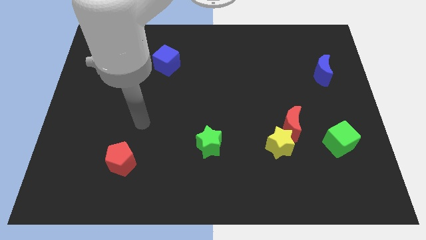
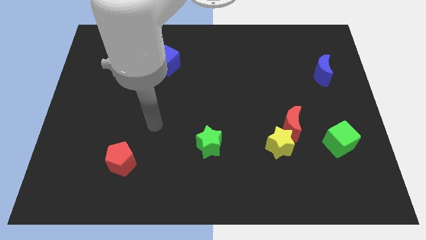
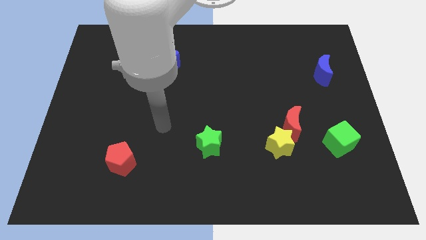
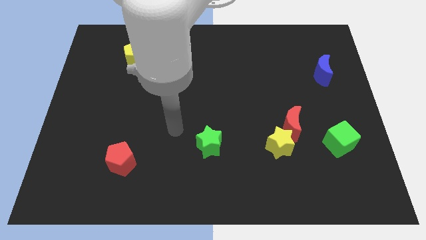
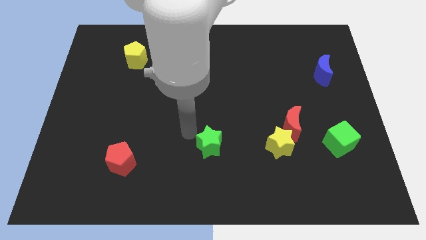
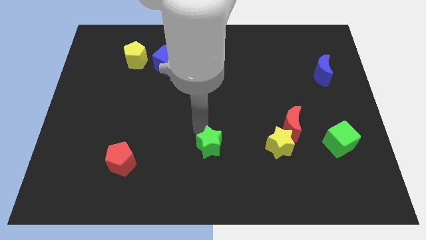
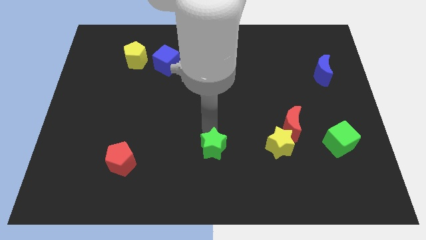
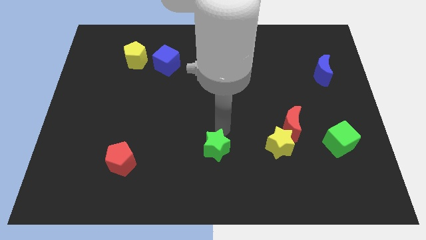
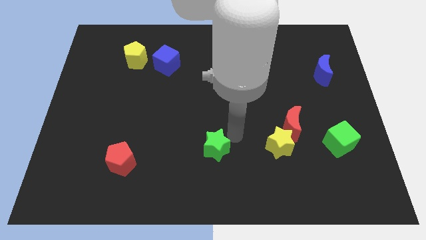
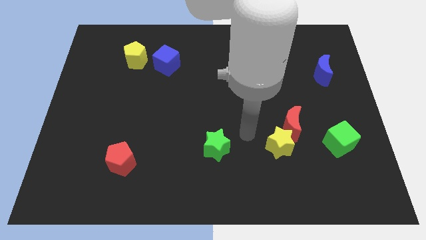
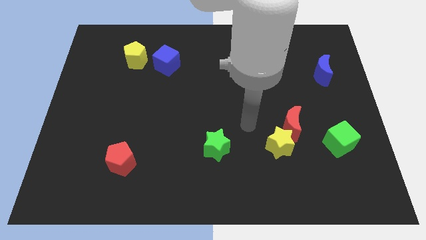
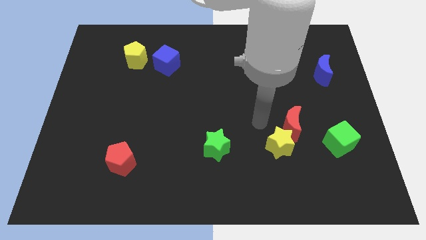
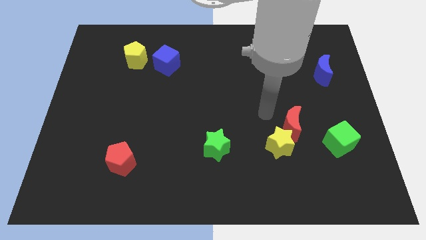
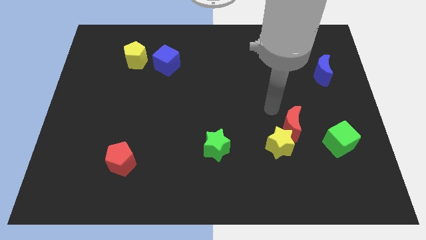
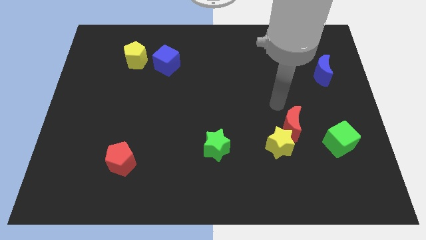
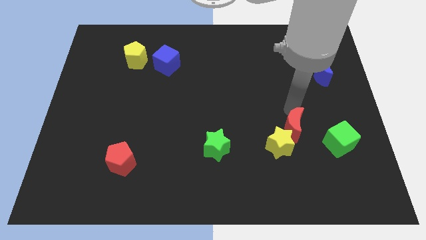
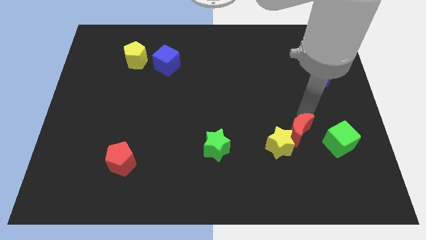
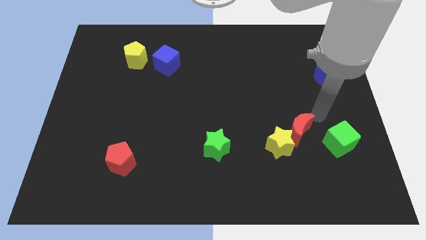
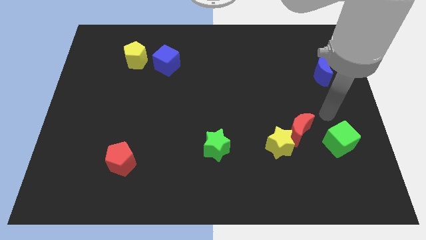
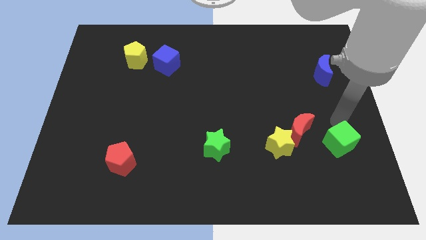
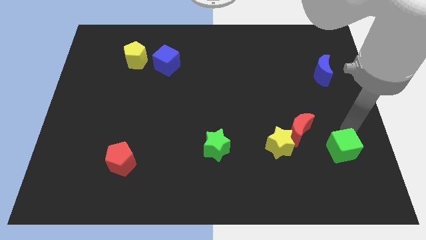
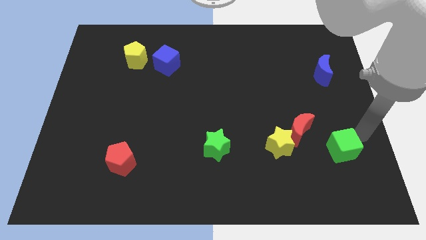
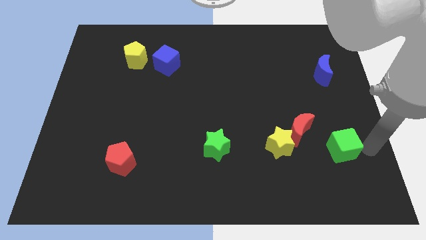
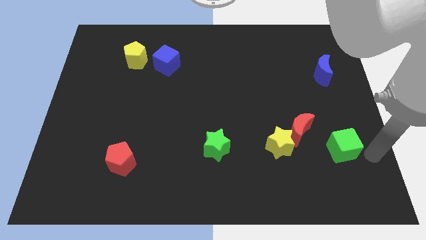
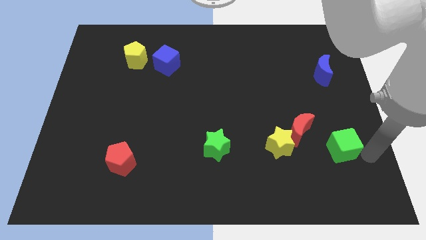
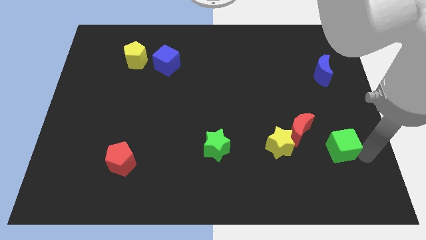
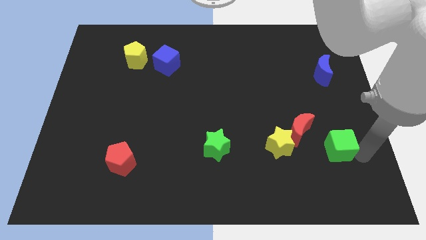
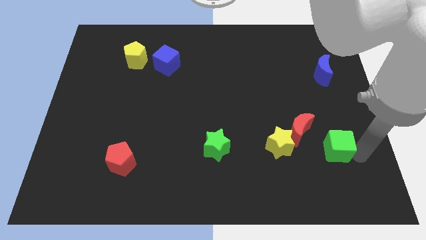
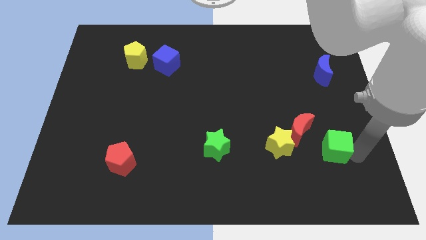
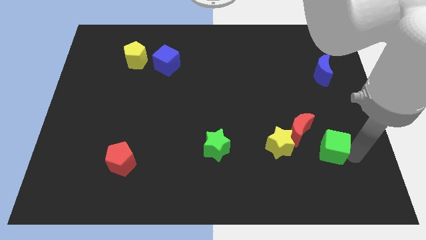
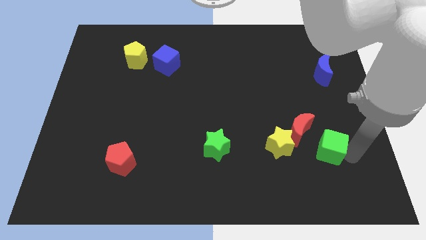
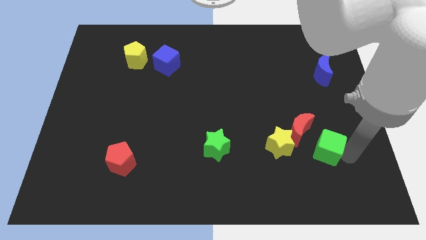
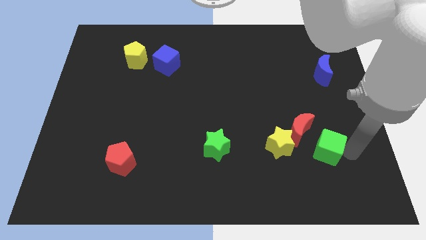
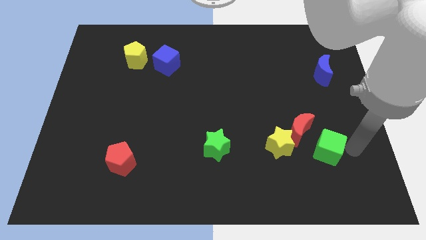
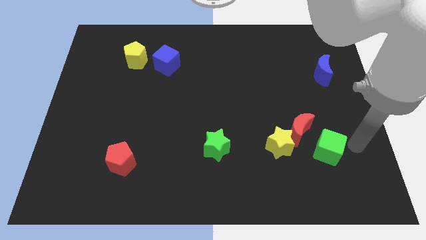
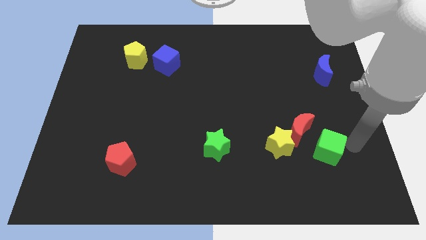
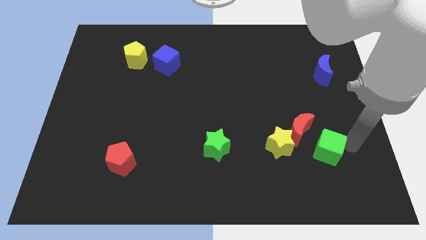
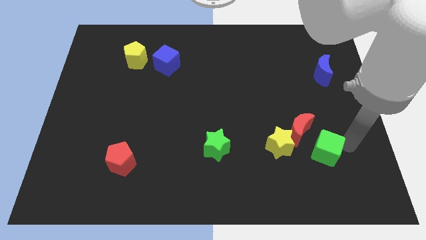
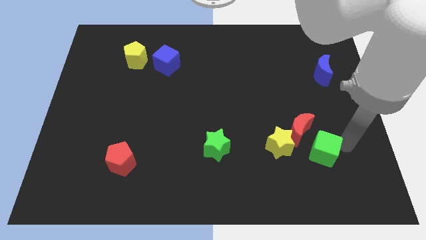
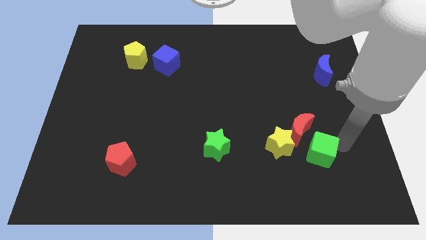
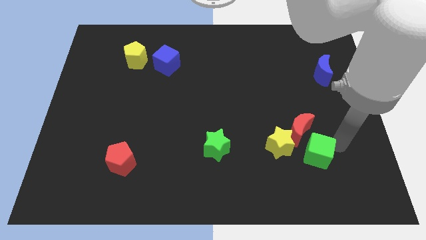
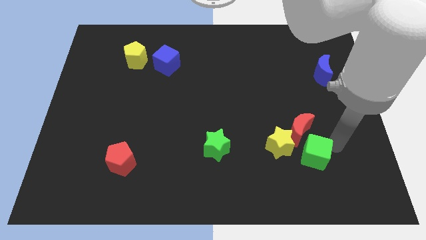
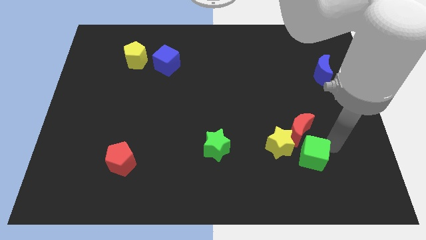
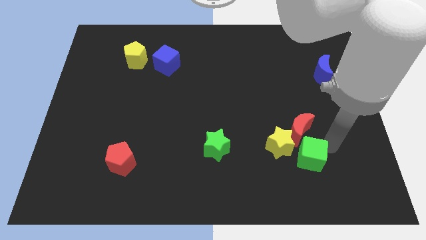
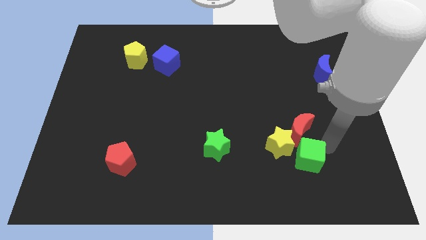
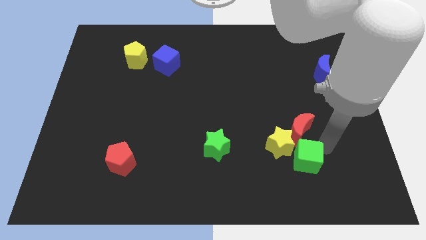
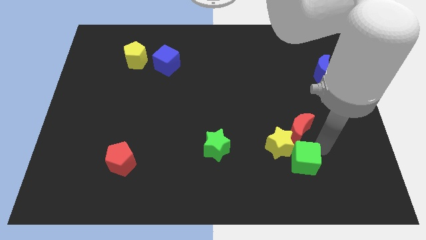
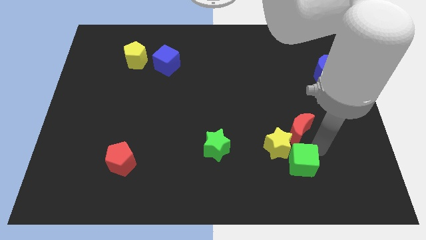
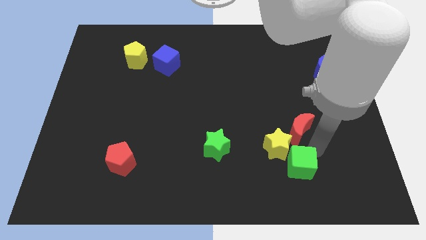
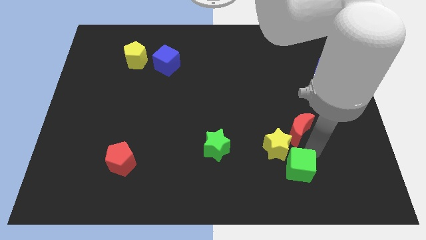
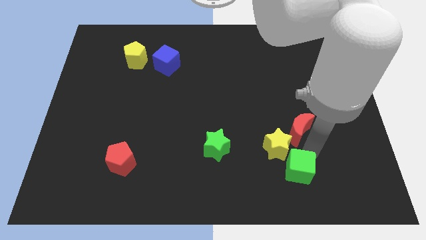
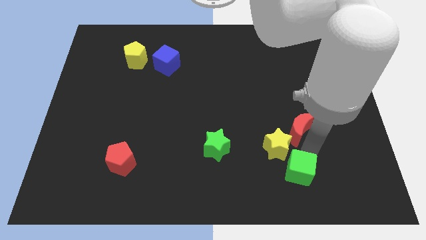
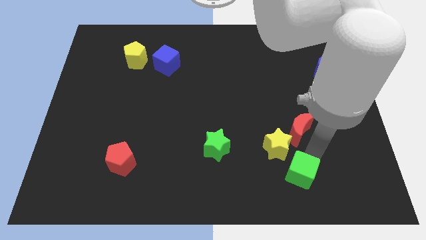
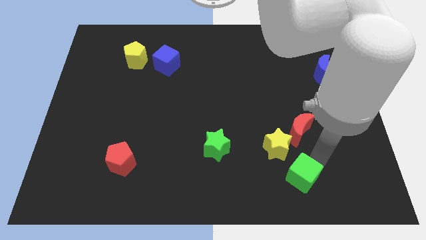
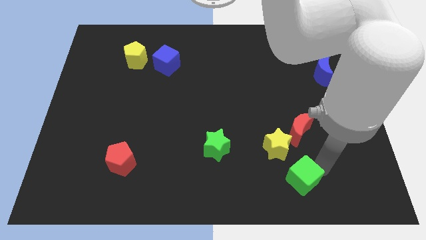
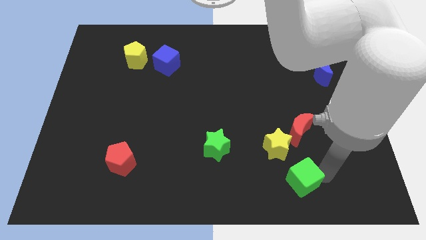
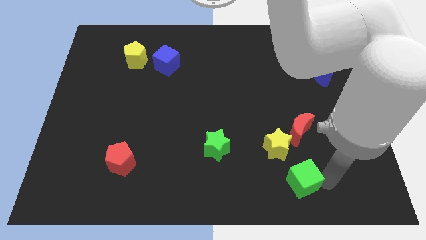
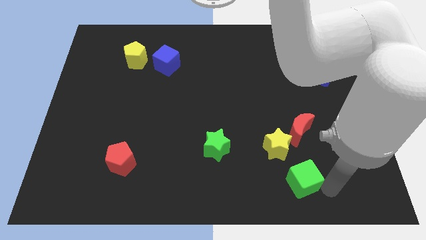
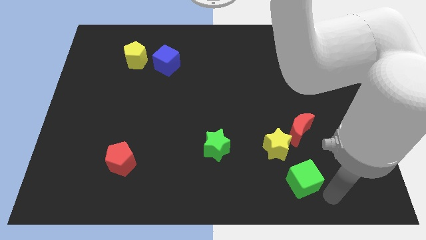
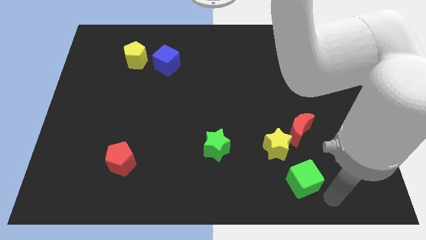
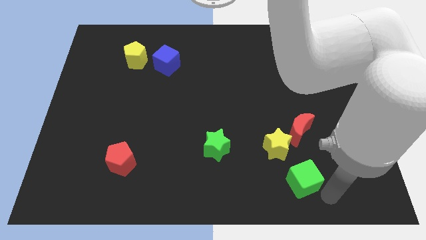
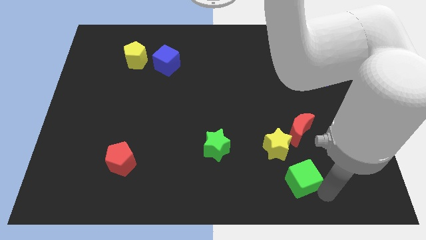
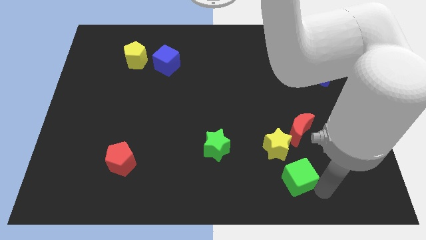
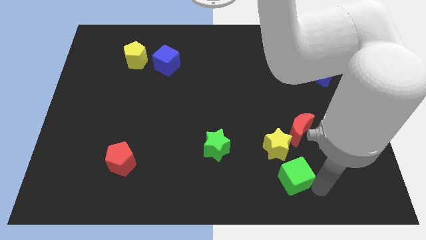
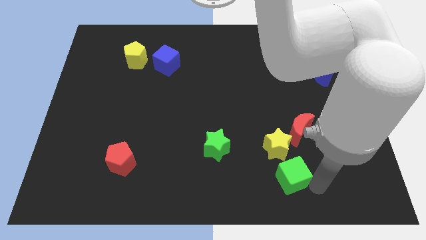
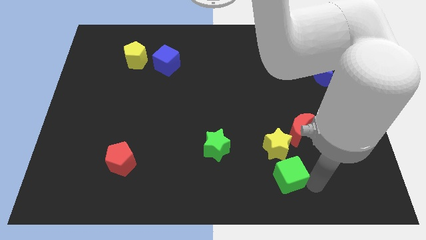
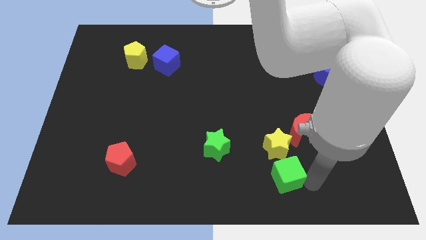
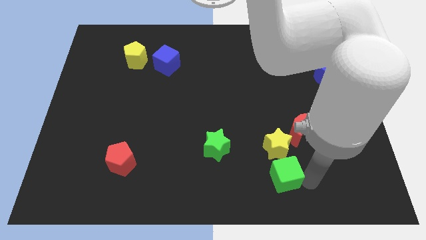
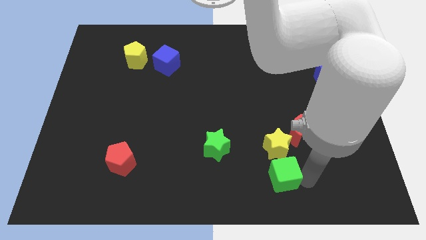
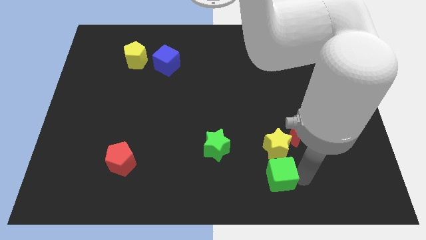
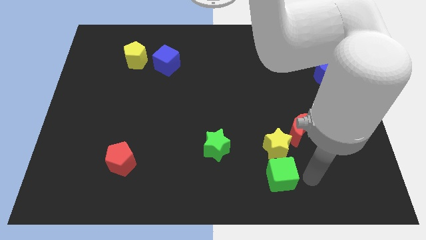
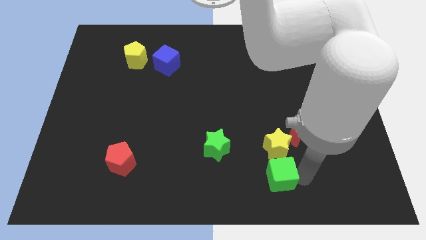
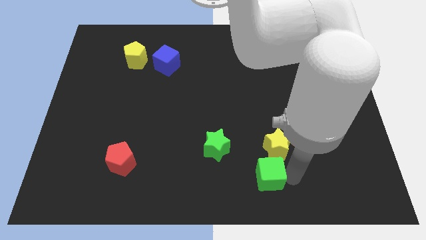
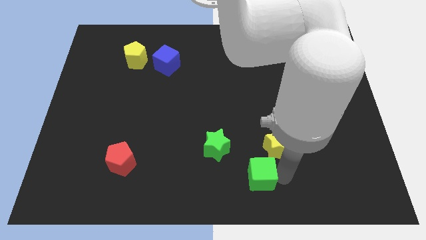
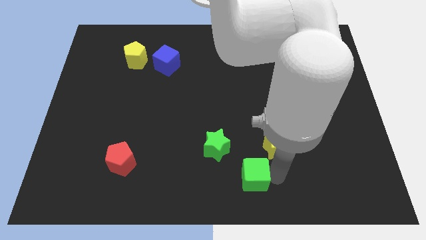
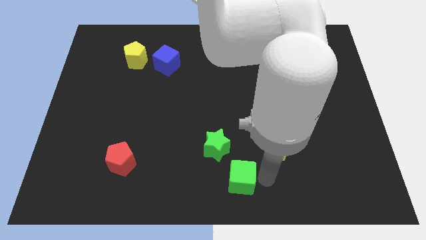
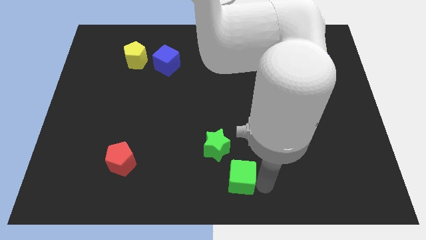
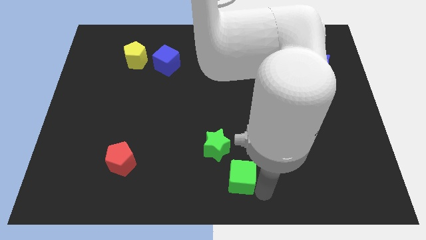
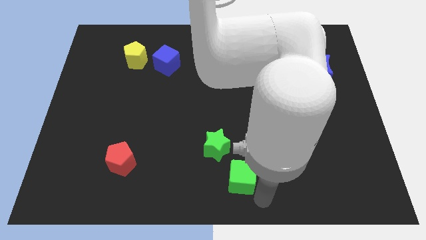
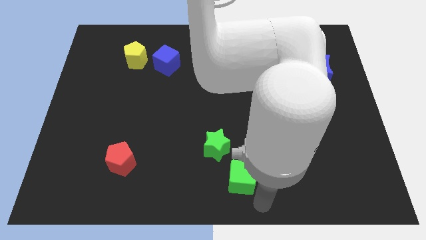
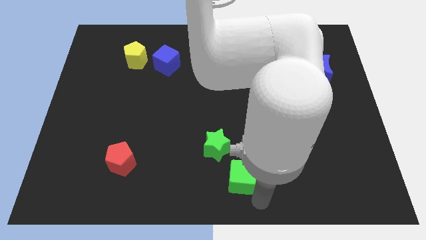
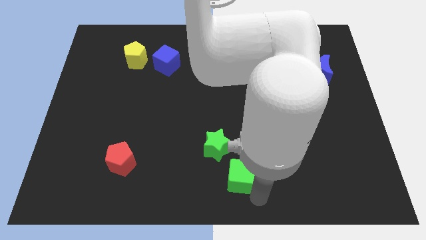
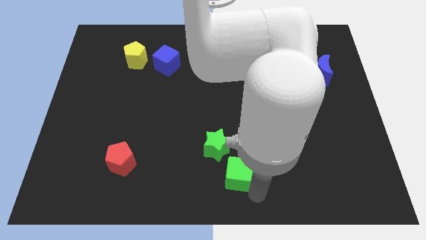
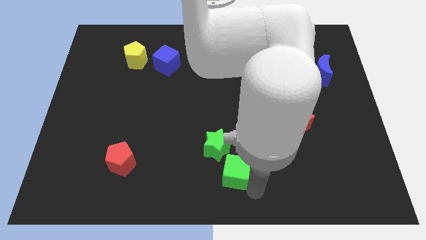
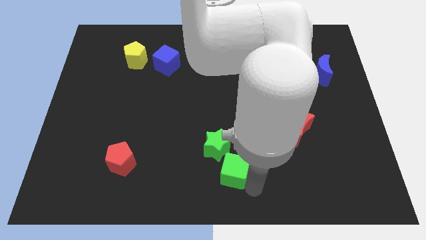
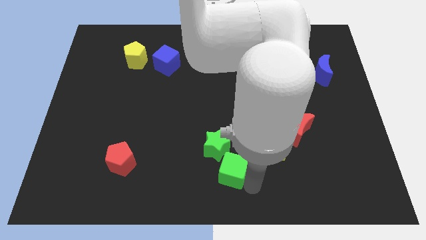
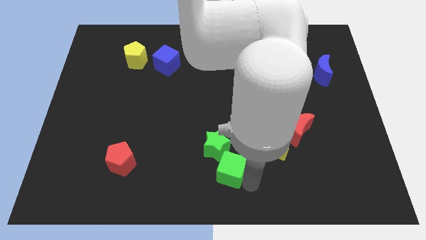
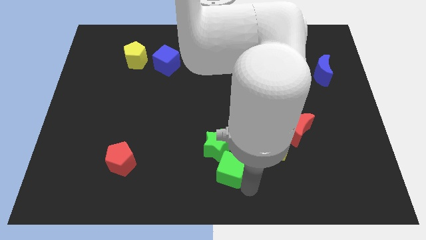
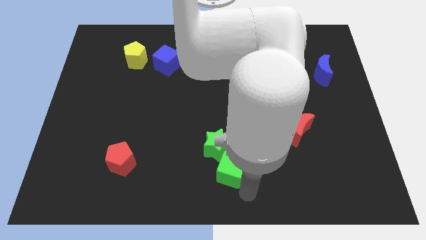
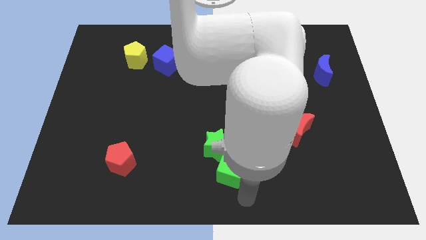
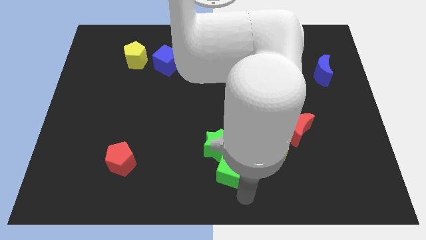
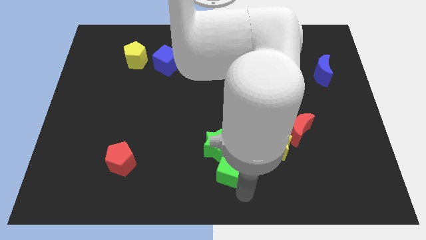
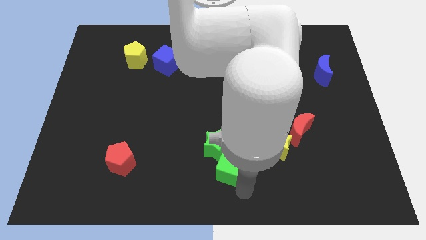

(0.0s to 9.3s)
slide the green cube next to the green star
